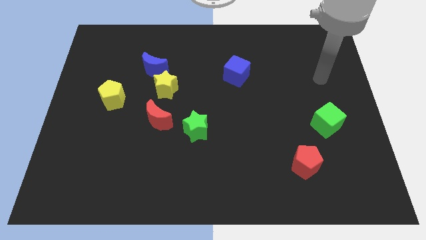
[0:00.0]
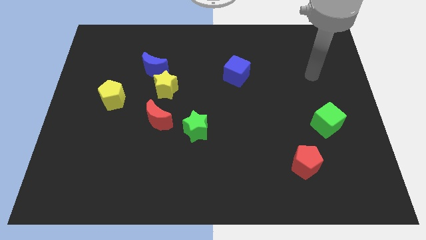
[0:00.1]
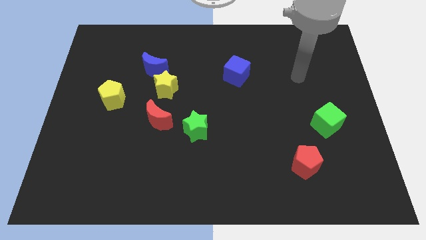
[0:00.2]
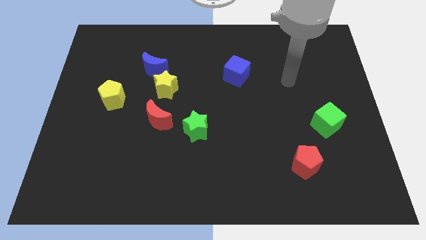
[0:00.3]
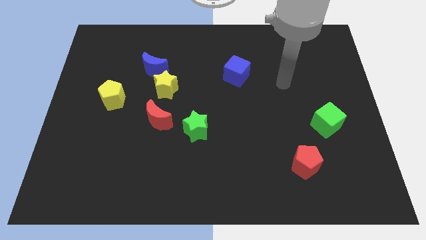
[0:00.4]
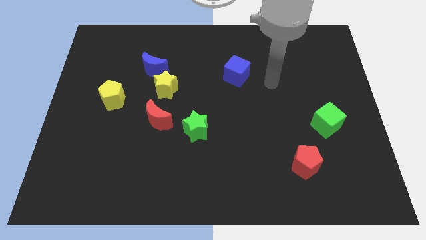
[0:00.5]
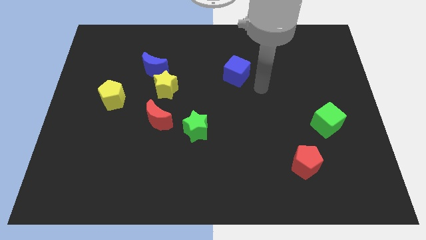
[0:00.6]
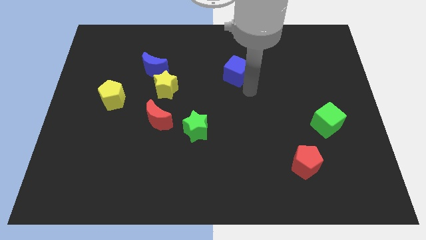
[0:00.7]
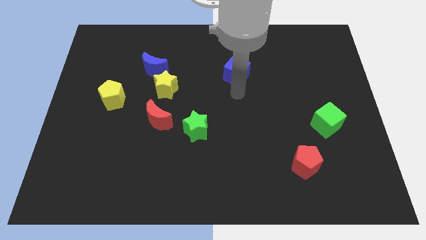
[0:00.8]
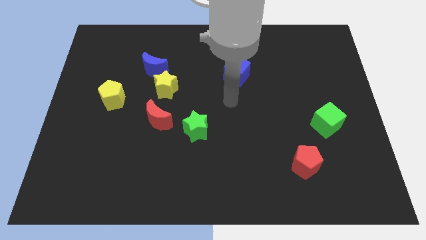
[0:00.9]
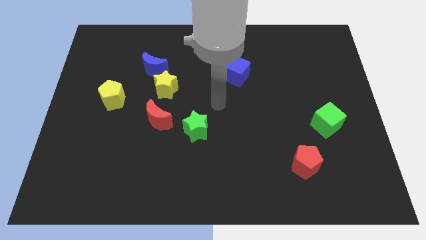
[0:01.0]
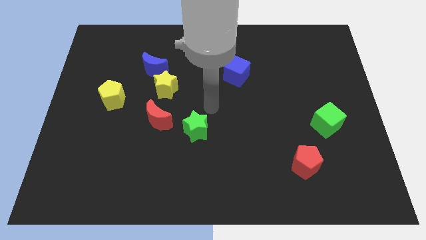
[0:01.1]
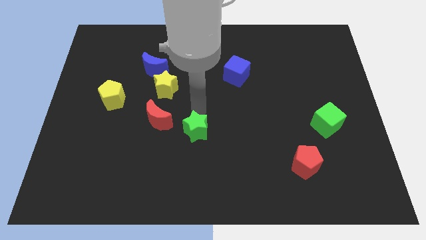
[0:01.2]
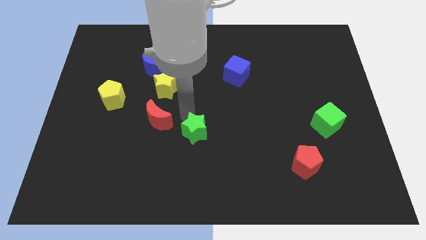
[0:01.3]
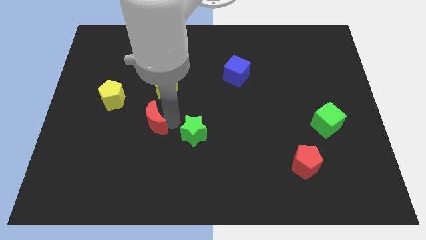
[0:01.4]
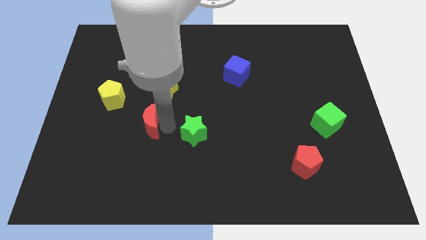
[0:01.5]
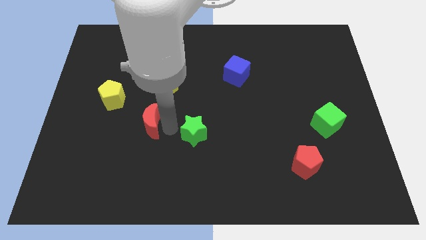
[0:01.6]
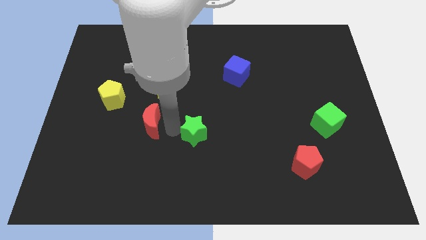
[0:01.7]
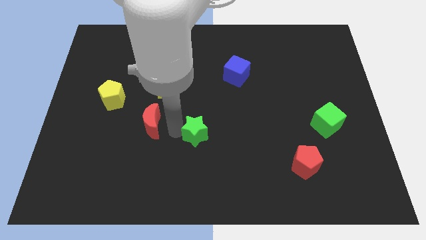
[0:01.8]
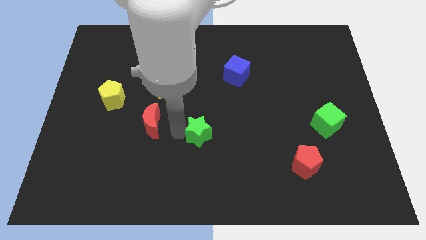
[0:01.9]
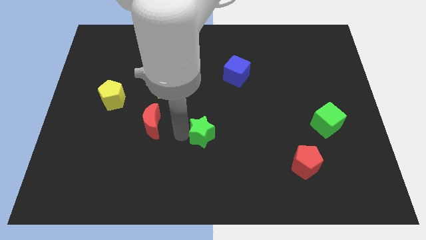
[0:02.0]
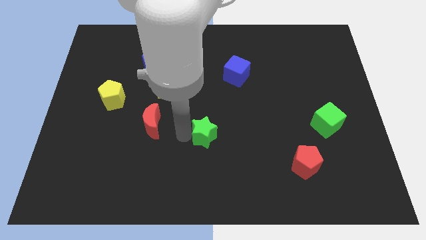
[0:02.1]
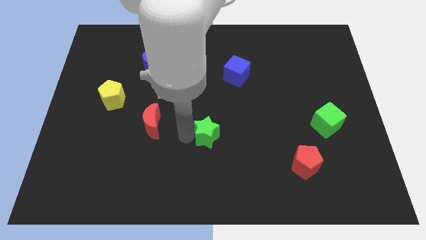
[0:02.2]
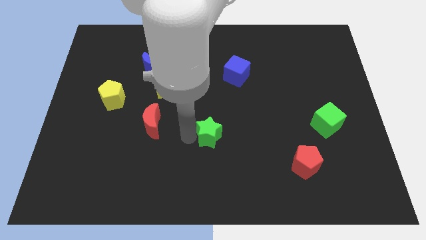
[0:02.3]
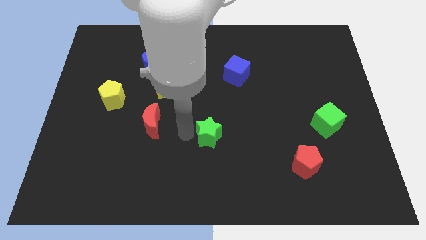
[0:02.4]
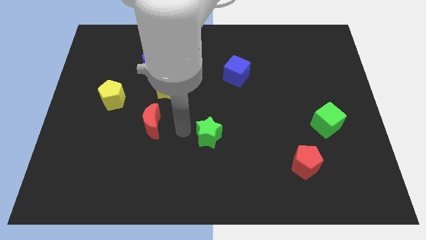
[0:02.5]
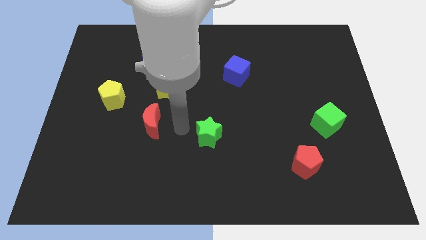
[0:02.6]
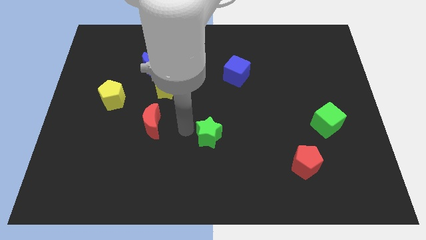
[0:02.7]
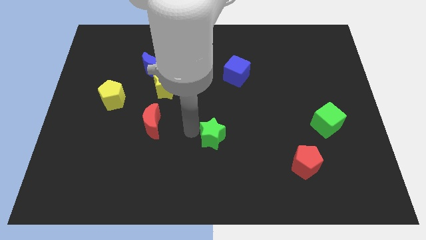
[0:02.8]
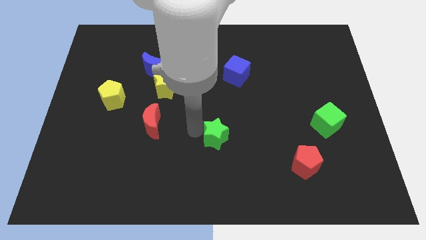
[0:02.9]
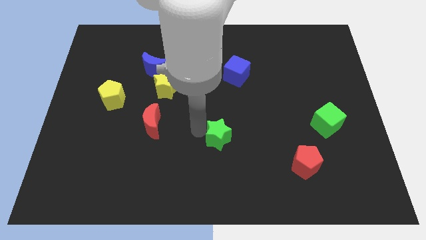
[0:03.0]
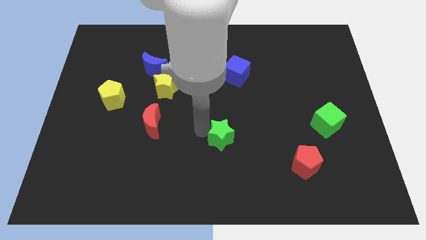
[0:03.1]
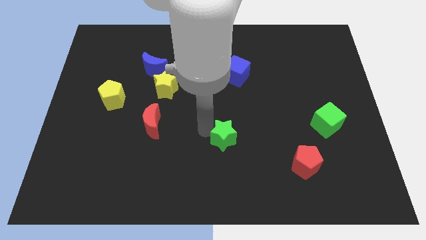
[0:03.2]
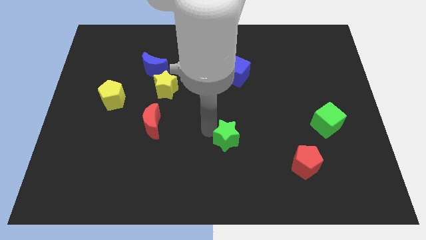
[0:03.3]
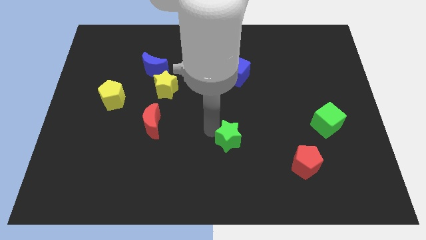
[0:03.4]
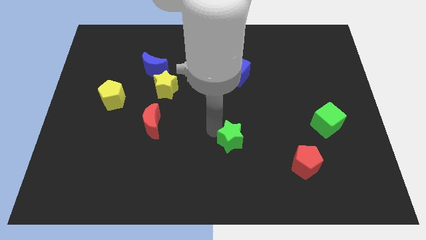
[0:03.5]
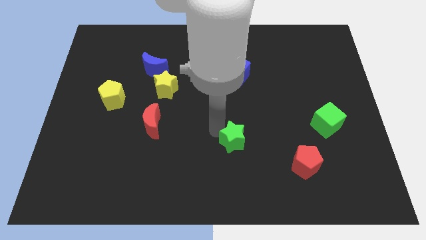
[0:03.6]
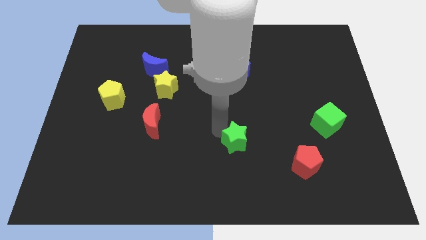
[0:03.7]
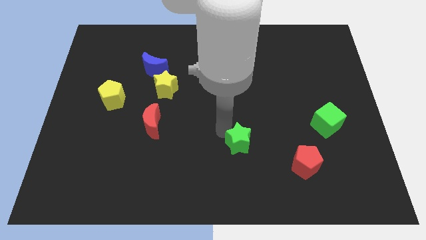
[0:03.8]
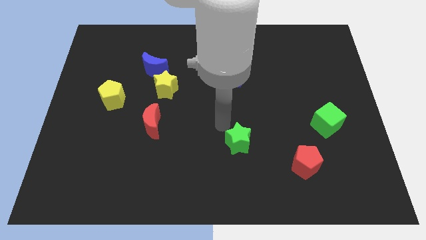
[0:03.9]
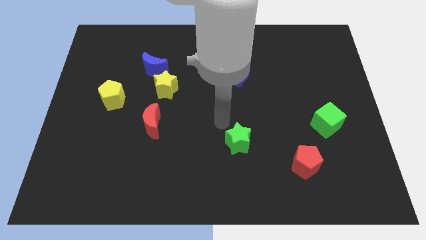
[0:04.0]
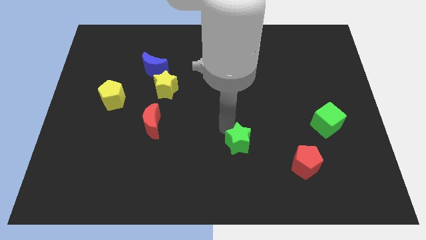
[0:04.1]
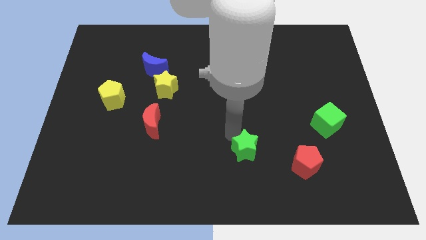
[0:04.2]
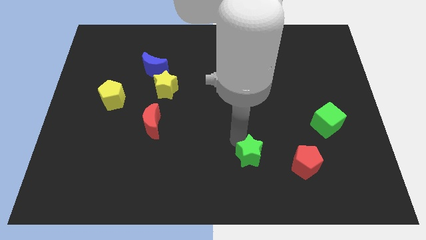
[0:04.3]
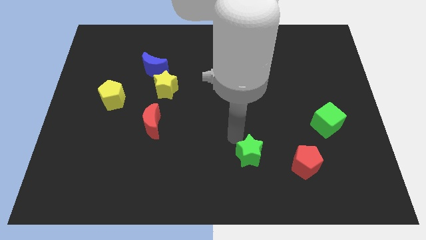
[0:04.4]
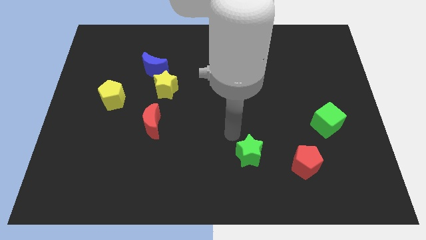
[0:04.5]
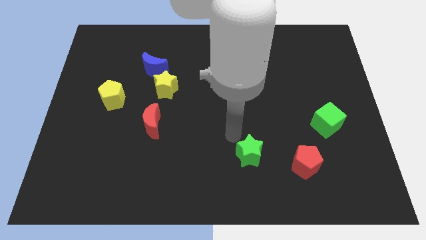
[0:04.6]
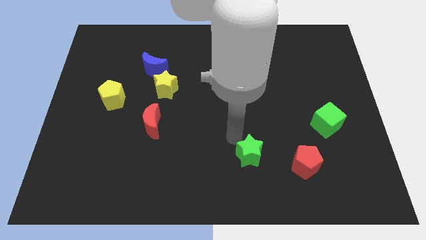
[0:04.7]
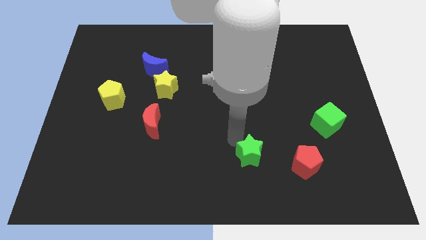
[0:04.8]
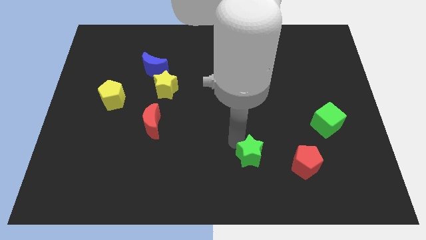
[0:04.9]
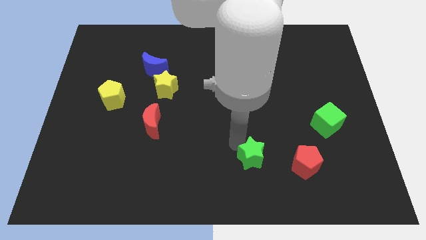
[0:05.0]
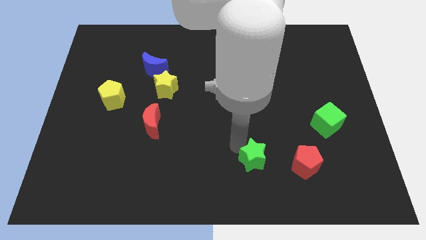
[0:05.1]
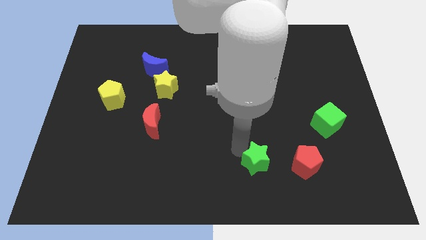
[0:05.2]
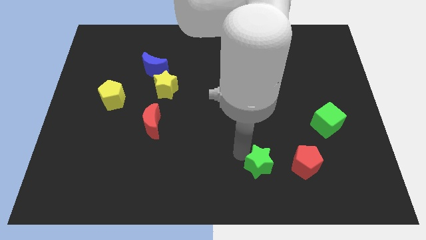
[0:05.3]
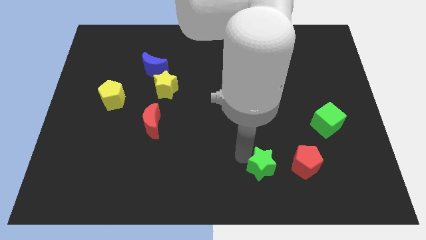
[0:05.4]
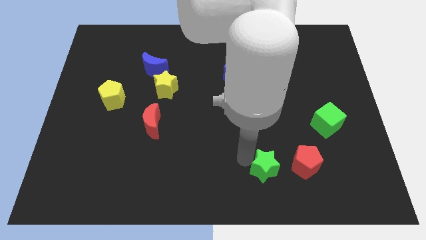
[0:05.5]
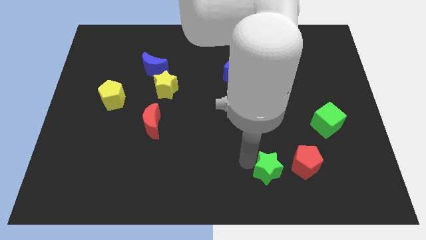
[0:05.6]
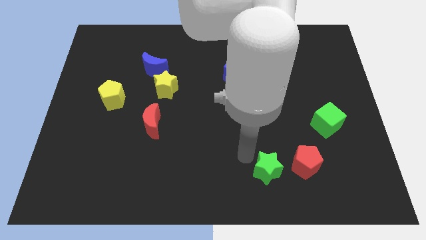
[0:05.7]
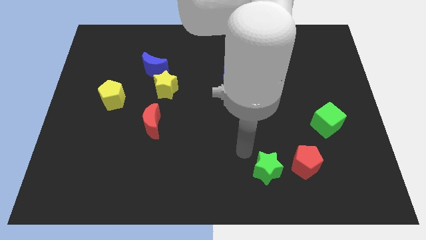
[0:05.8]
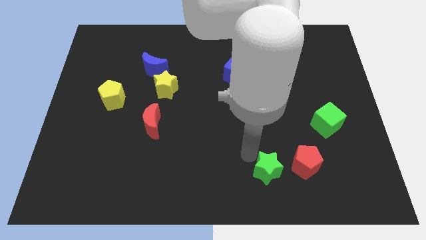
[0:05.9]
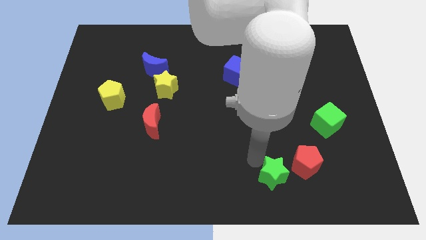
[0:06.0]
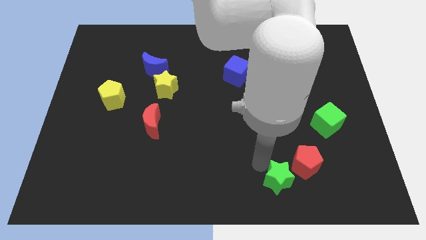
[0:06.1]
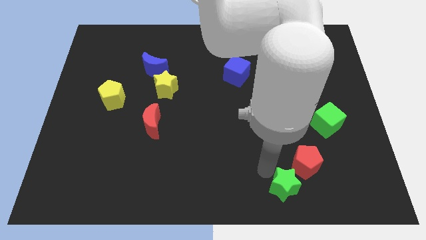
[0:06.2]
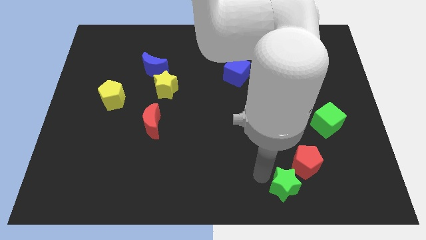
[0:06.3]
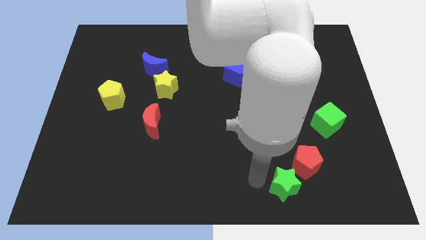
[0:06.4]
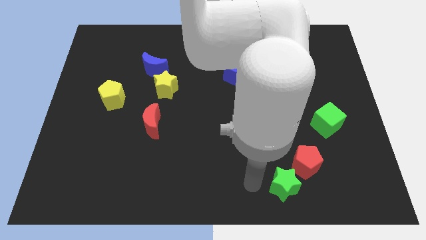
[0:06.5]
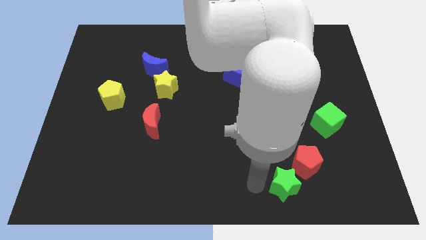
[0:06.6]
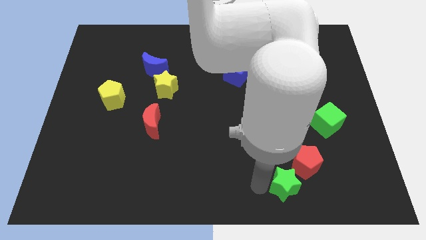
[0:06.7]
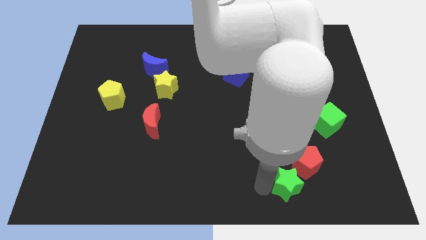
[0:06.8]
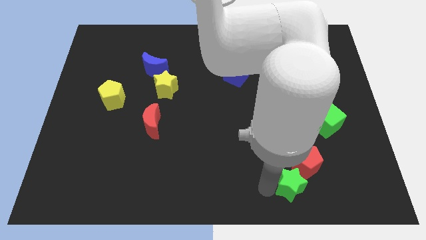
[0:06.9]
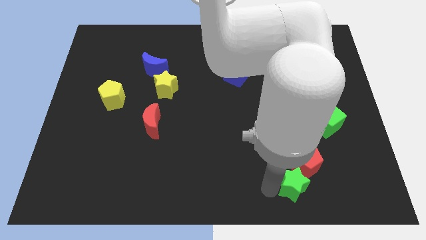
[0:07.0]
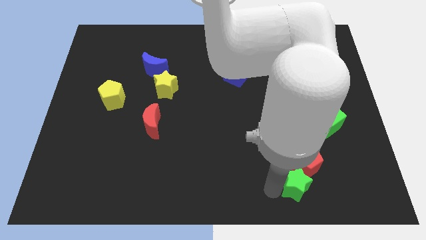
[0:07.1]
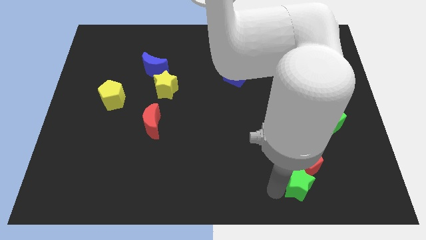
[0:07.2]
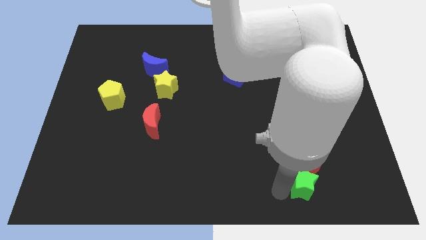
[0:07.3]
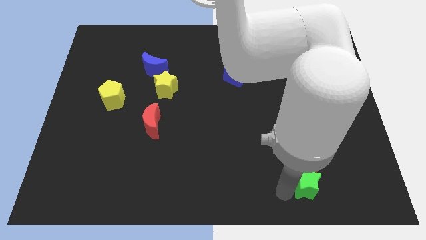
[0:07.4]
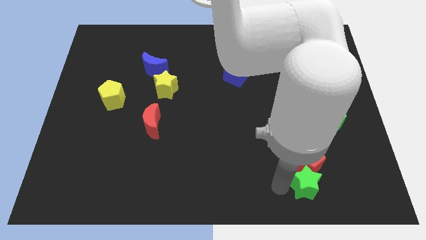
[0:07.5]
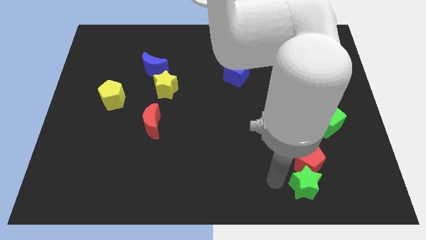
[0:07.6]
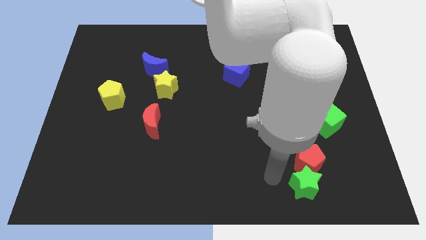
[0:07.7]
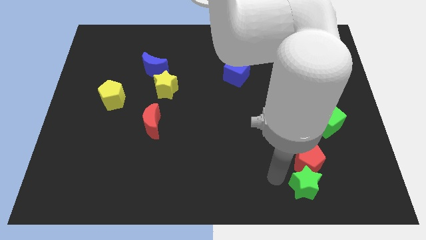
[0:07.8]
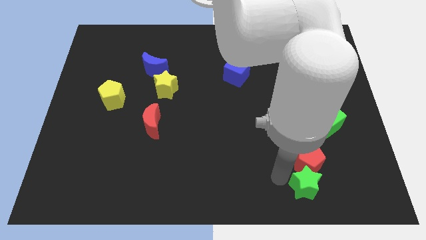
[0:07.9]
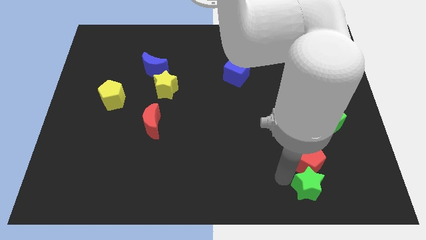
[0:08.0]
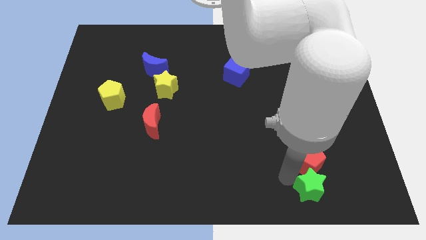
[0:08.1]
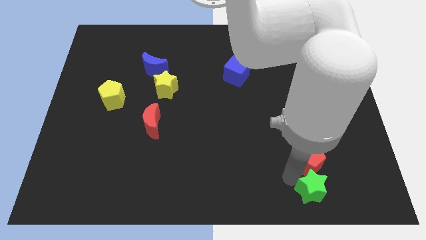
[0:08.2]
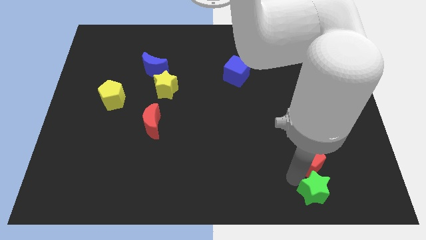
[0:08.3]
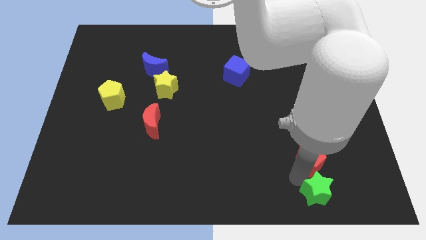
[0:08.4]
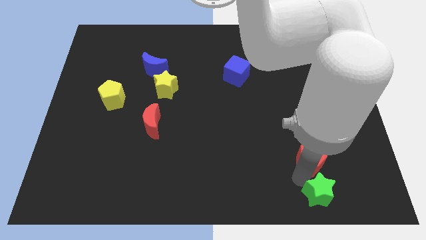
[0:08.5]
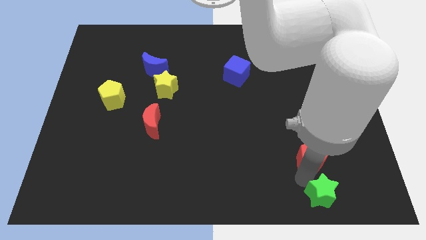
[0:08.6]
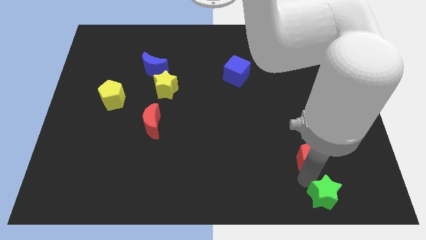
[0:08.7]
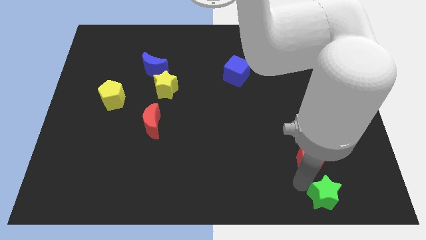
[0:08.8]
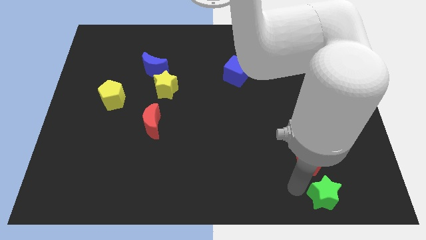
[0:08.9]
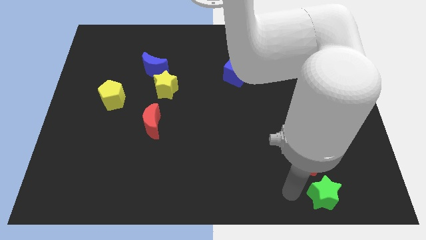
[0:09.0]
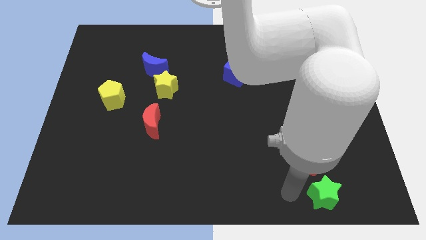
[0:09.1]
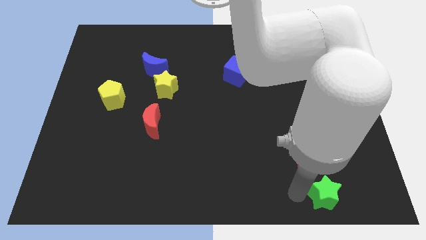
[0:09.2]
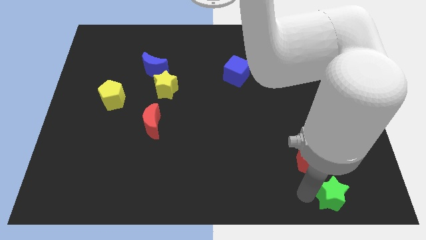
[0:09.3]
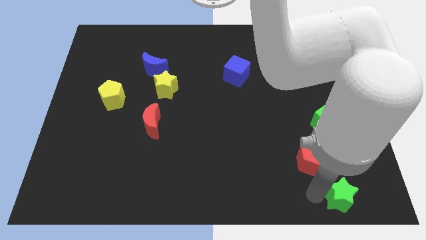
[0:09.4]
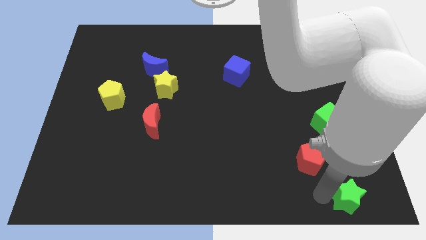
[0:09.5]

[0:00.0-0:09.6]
move the green star to the bottom right
